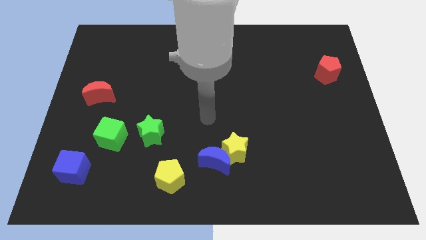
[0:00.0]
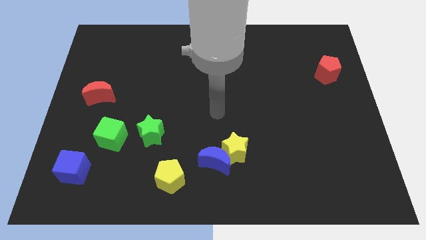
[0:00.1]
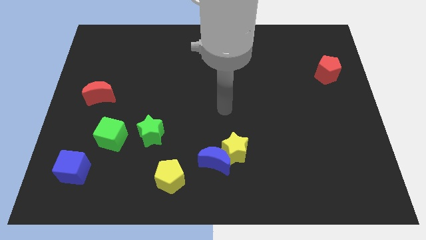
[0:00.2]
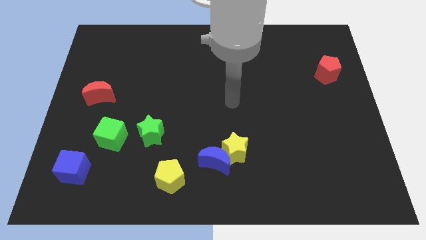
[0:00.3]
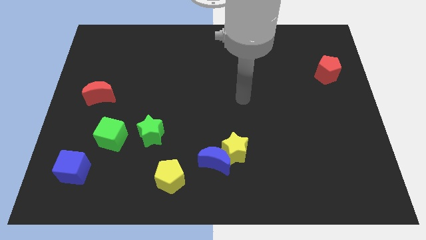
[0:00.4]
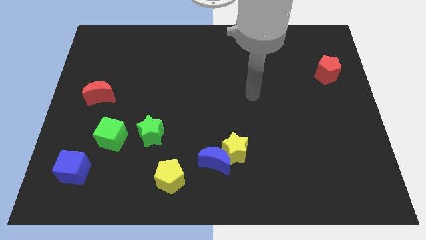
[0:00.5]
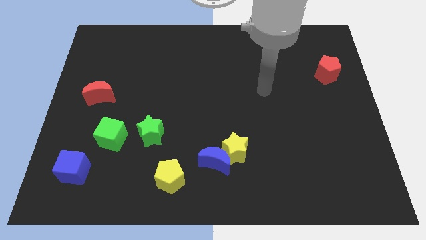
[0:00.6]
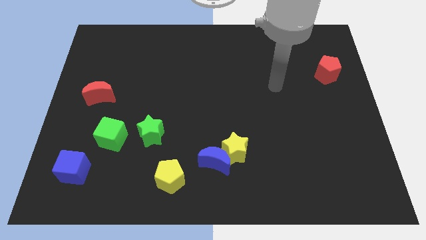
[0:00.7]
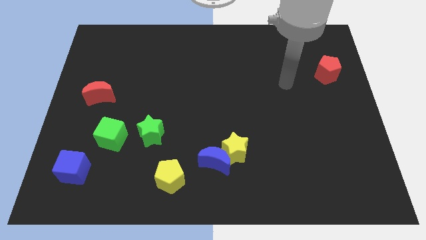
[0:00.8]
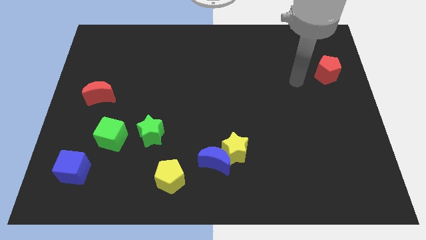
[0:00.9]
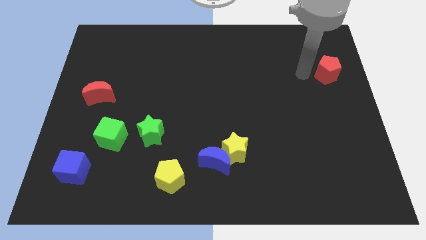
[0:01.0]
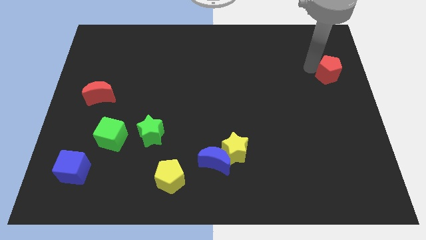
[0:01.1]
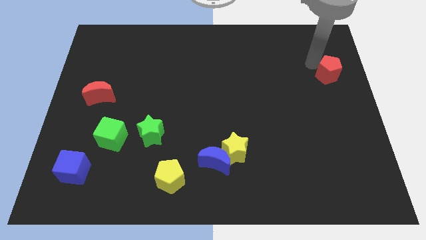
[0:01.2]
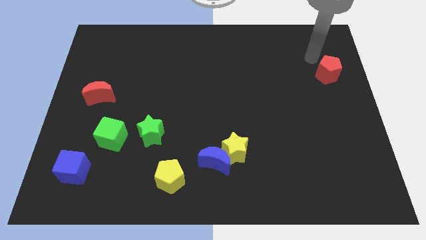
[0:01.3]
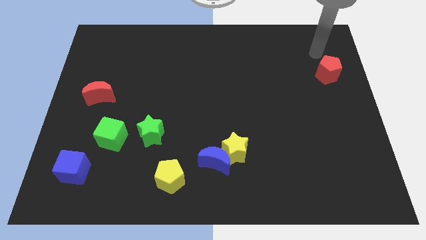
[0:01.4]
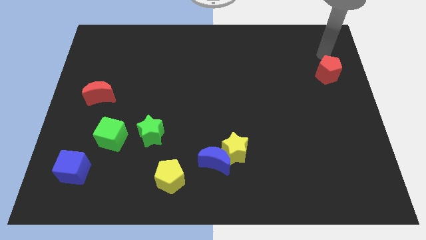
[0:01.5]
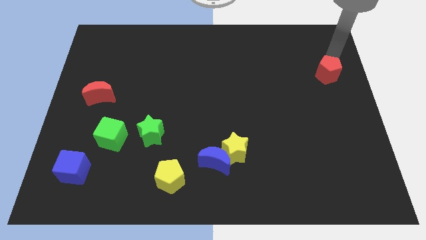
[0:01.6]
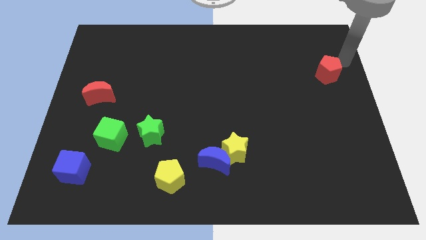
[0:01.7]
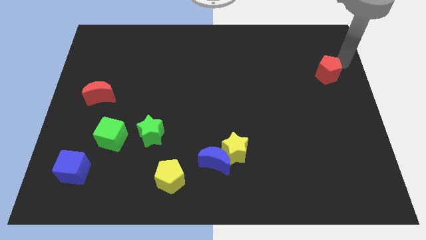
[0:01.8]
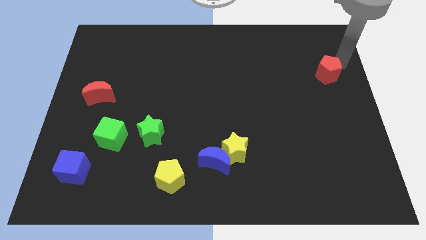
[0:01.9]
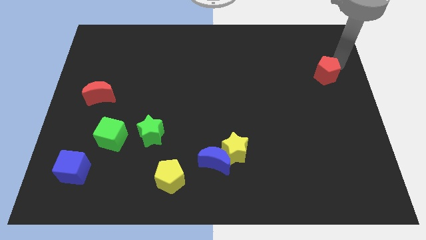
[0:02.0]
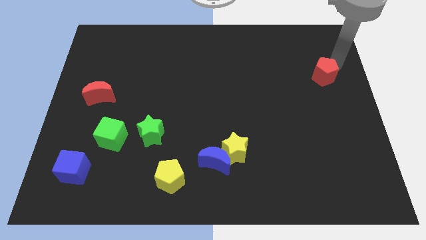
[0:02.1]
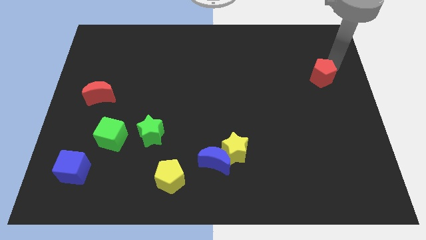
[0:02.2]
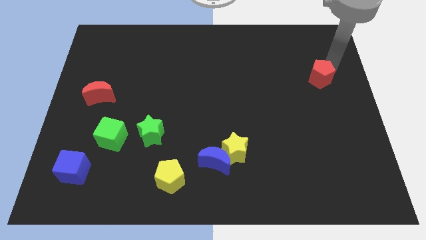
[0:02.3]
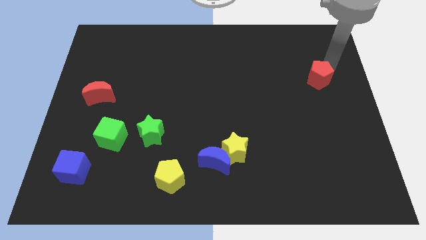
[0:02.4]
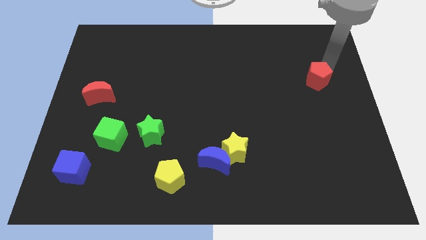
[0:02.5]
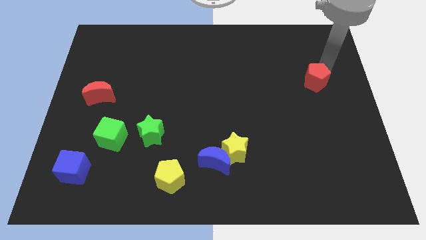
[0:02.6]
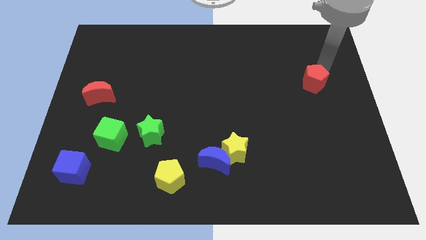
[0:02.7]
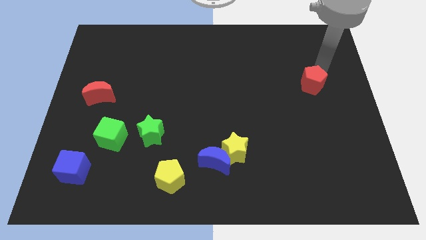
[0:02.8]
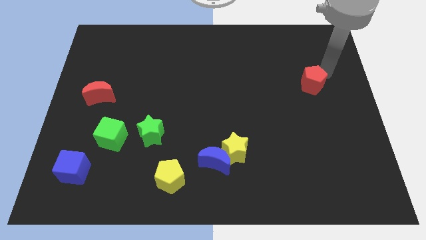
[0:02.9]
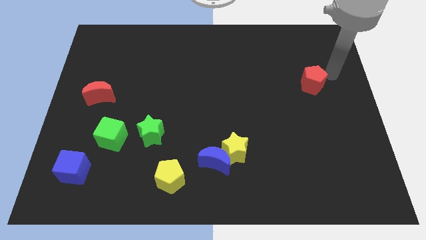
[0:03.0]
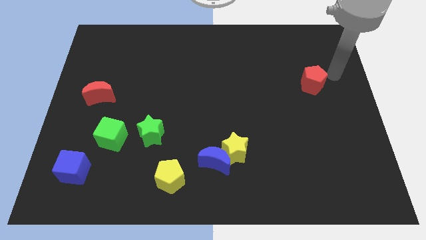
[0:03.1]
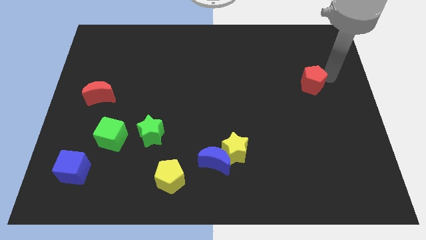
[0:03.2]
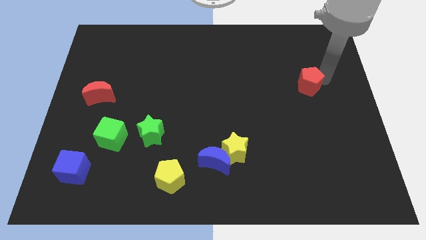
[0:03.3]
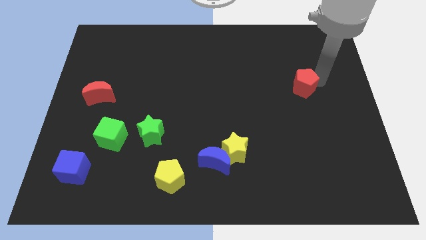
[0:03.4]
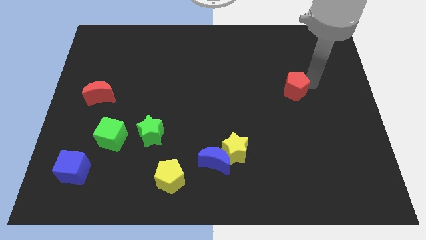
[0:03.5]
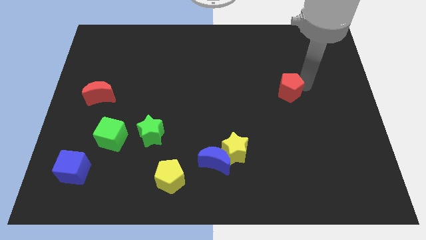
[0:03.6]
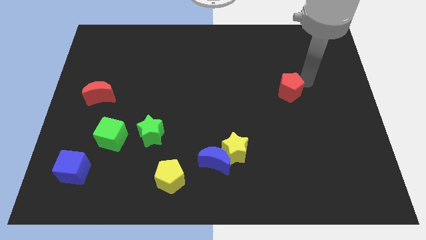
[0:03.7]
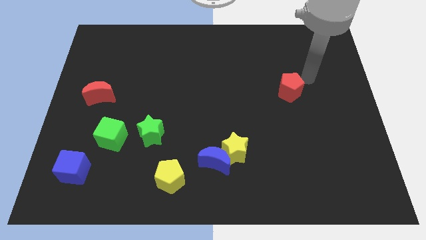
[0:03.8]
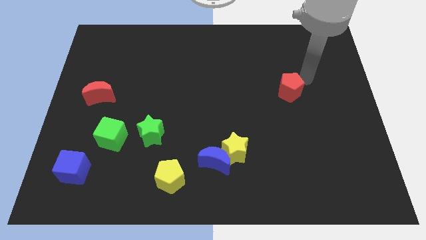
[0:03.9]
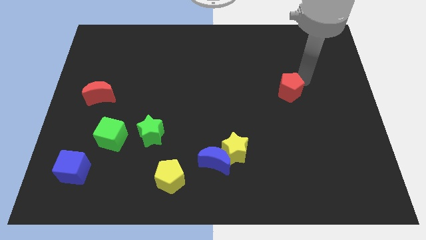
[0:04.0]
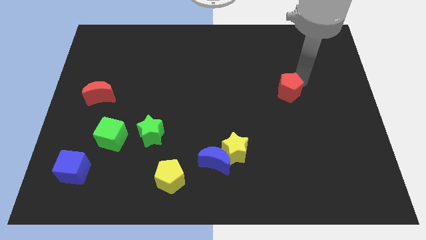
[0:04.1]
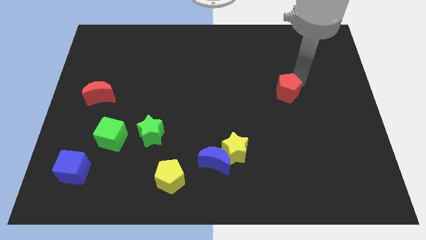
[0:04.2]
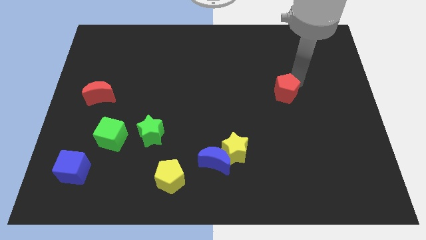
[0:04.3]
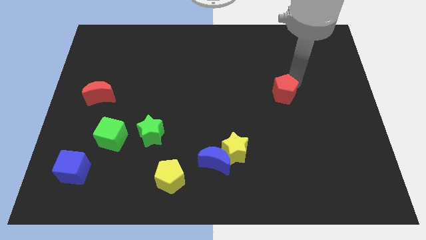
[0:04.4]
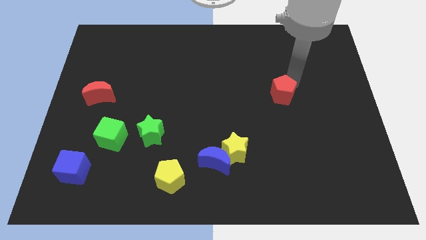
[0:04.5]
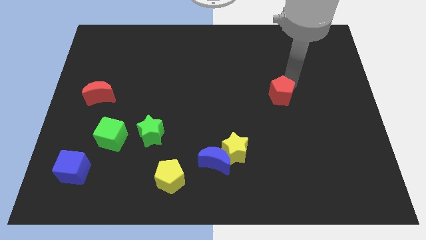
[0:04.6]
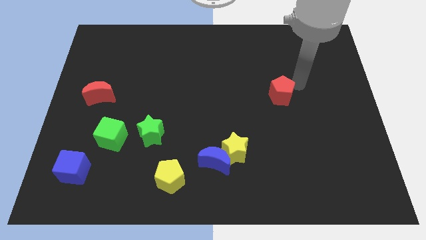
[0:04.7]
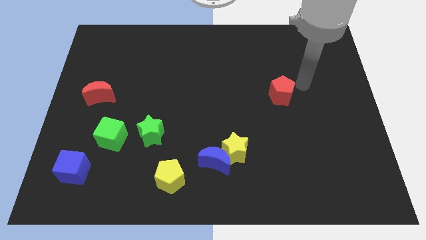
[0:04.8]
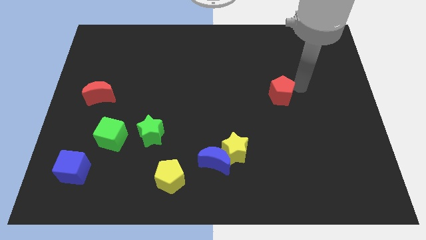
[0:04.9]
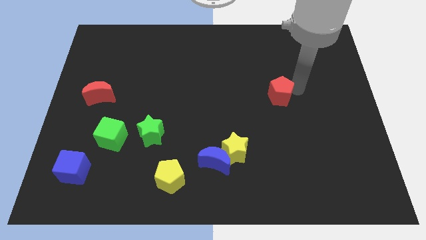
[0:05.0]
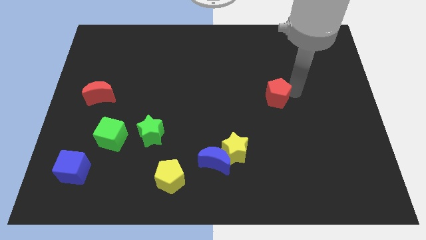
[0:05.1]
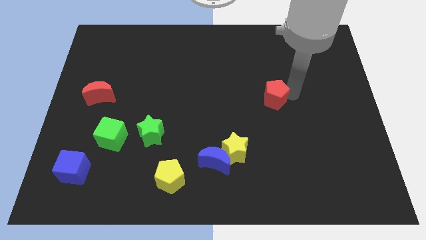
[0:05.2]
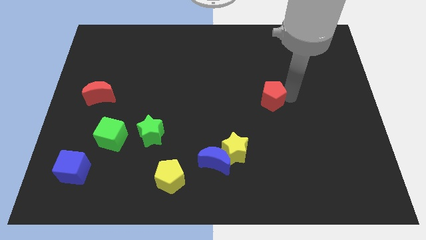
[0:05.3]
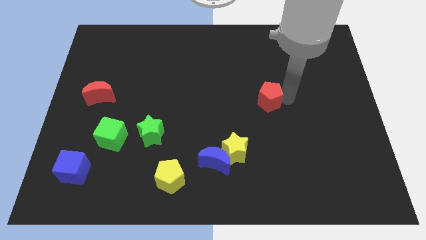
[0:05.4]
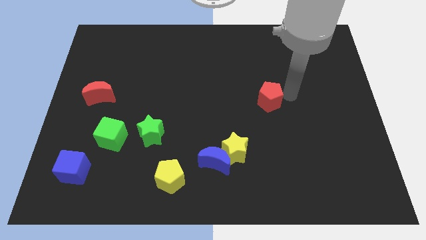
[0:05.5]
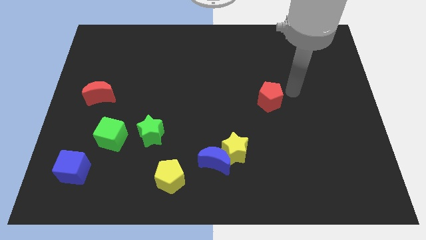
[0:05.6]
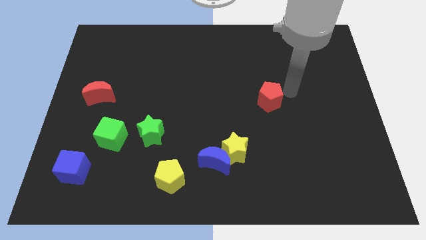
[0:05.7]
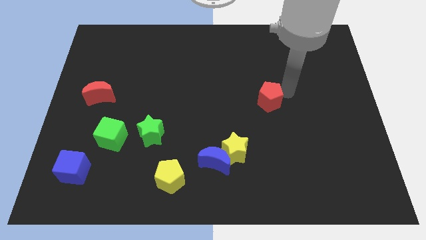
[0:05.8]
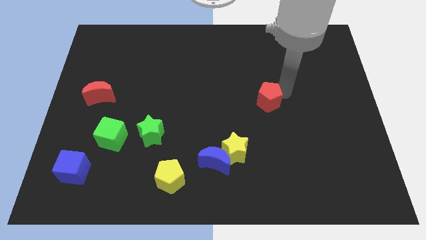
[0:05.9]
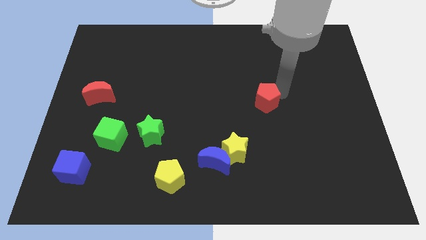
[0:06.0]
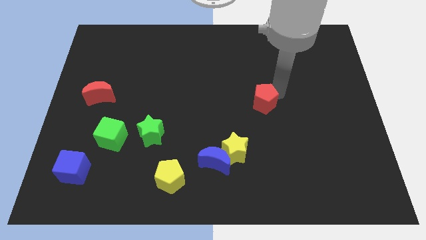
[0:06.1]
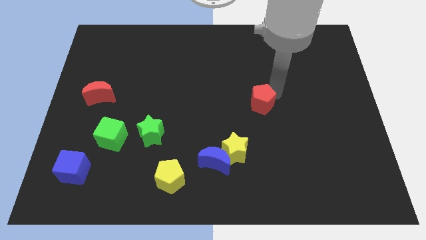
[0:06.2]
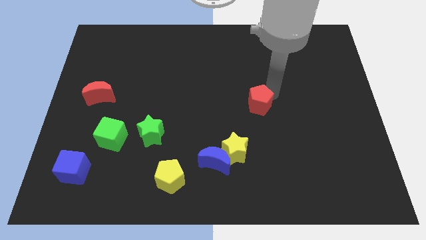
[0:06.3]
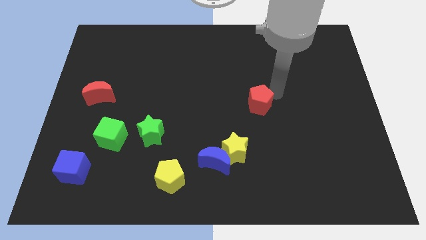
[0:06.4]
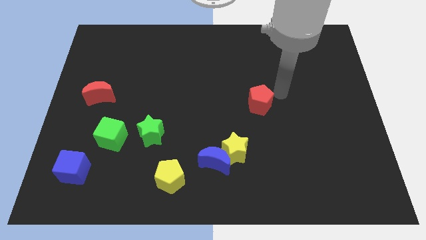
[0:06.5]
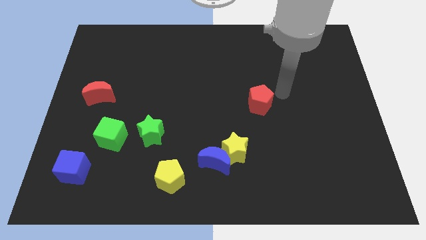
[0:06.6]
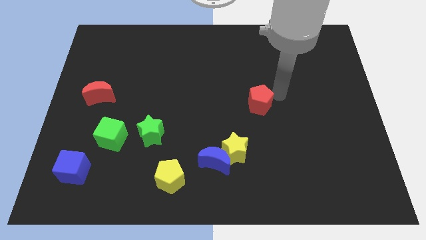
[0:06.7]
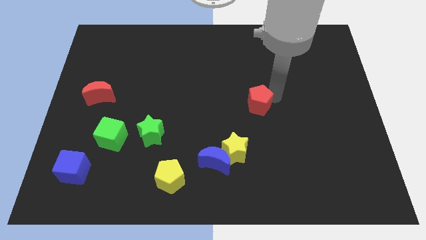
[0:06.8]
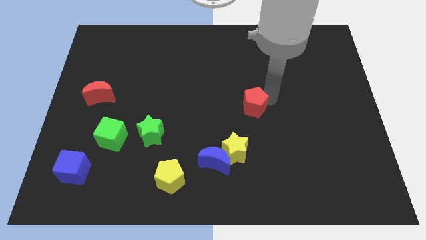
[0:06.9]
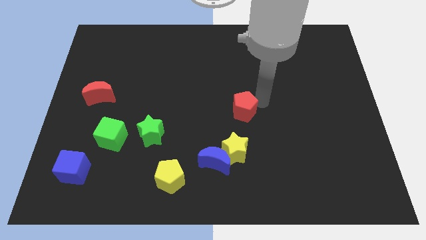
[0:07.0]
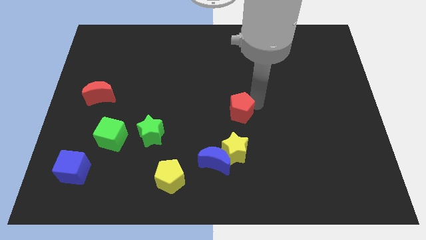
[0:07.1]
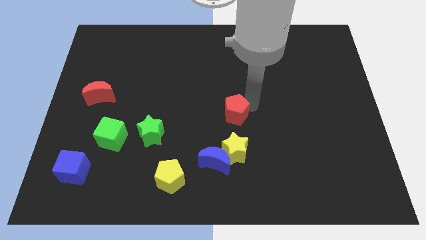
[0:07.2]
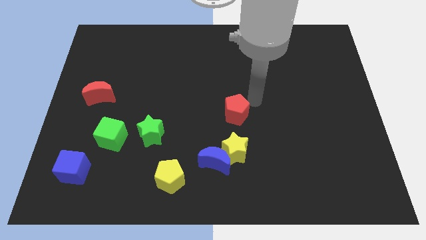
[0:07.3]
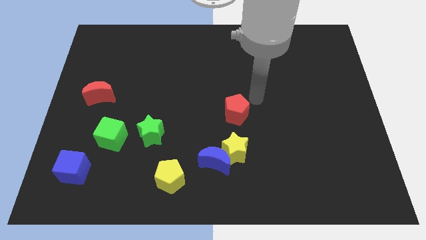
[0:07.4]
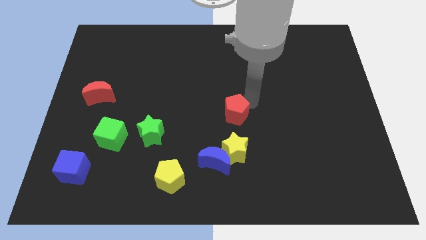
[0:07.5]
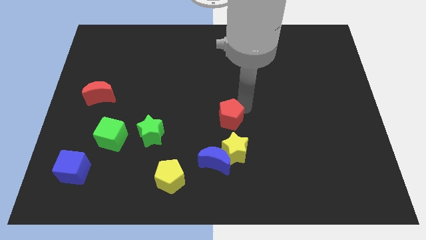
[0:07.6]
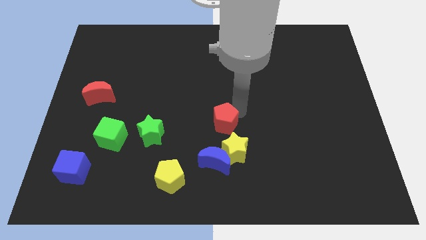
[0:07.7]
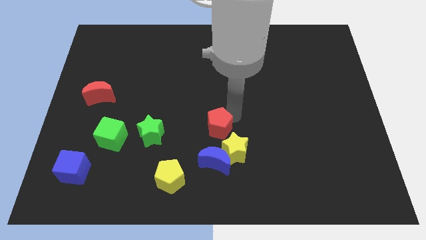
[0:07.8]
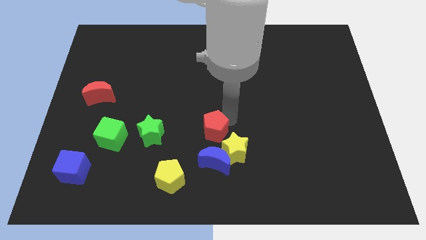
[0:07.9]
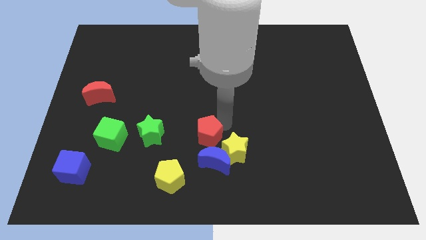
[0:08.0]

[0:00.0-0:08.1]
push the red pentagon to the top left side of the blue moon
